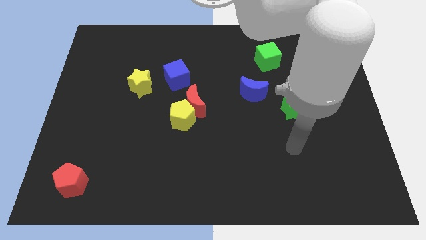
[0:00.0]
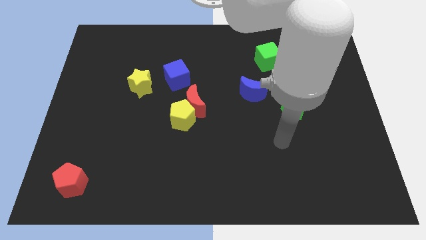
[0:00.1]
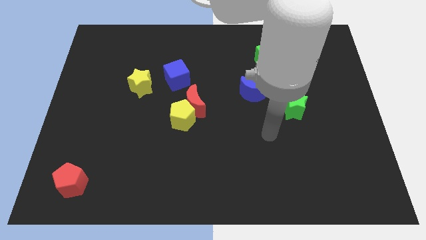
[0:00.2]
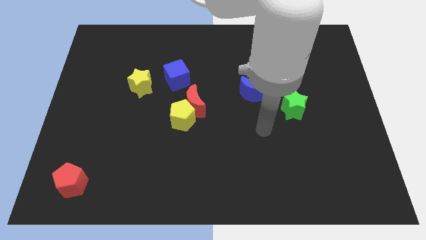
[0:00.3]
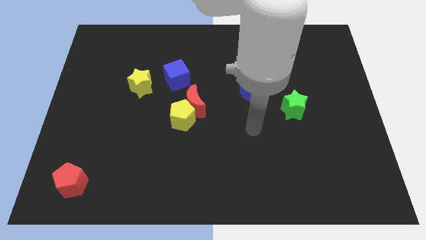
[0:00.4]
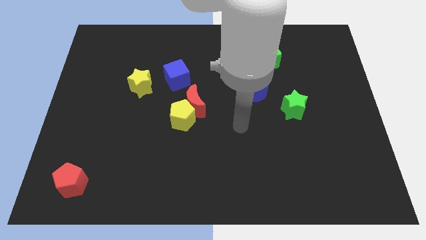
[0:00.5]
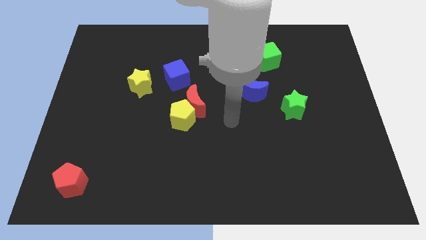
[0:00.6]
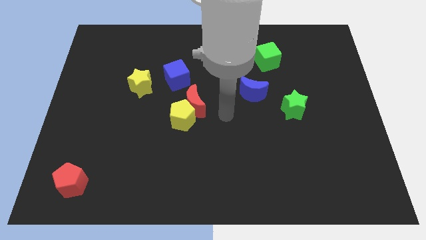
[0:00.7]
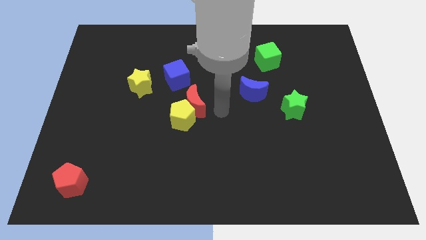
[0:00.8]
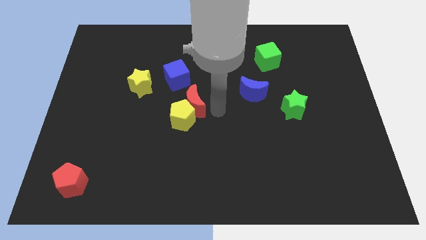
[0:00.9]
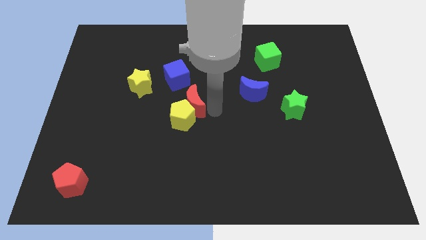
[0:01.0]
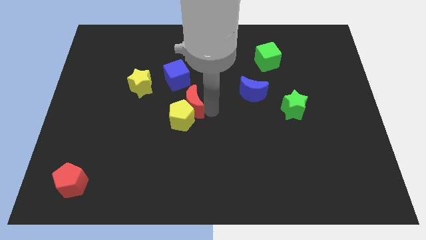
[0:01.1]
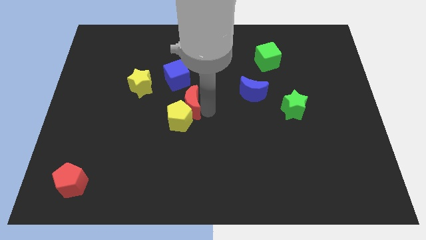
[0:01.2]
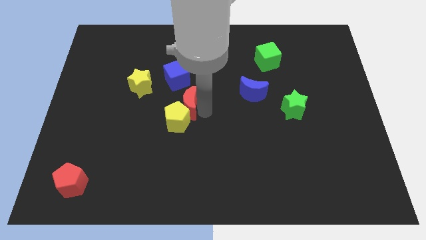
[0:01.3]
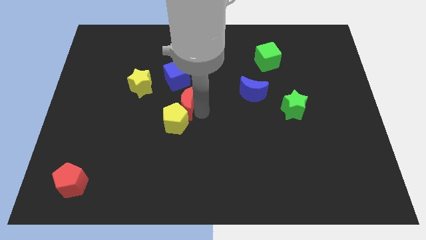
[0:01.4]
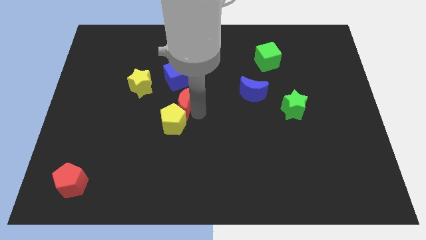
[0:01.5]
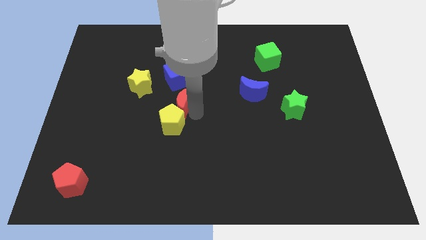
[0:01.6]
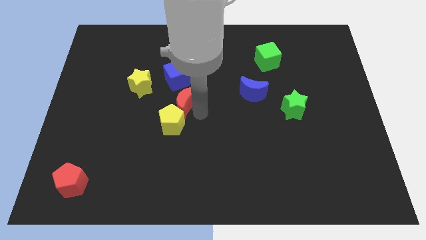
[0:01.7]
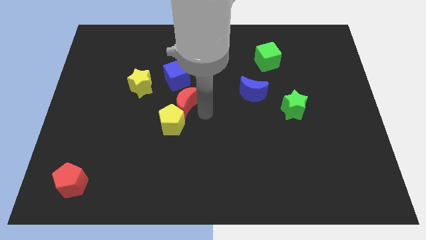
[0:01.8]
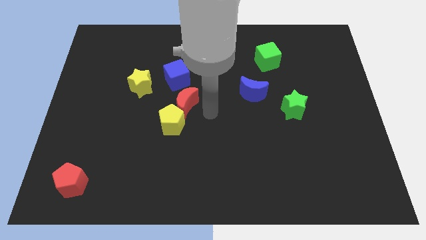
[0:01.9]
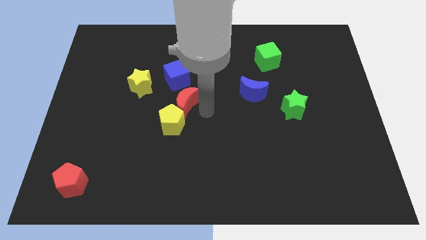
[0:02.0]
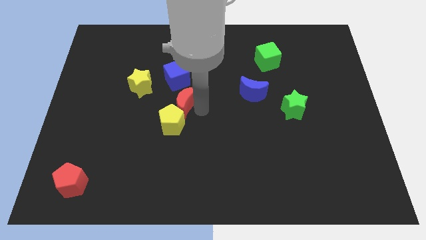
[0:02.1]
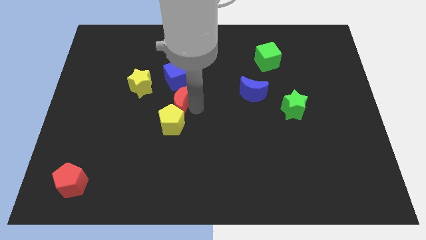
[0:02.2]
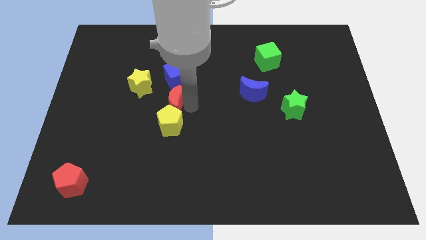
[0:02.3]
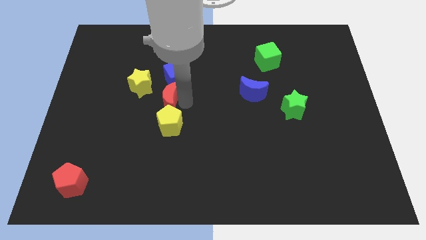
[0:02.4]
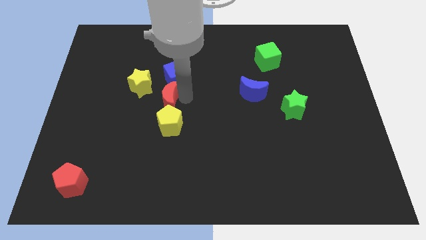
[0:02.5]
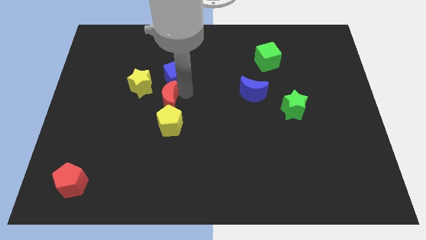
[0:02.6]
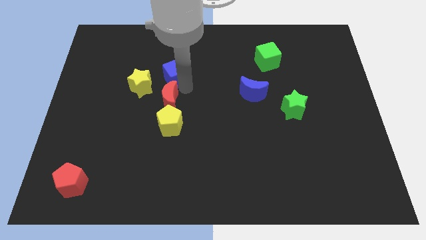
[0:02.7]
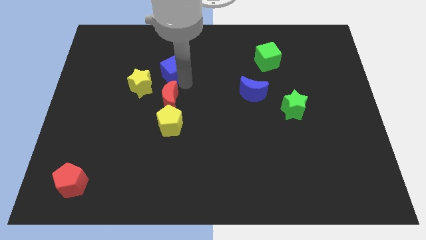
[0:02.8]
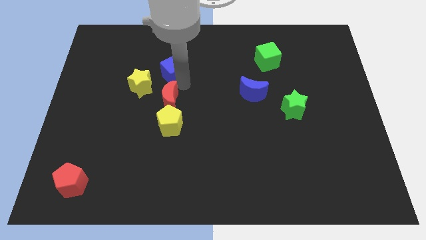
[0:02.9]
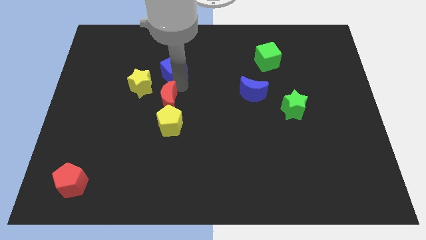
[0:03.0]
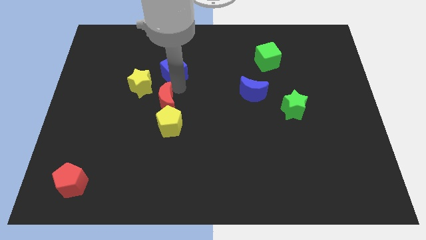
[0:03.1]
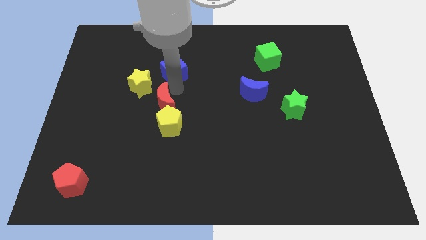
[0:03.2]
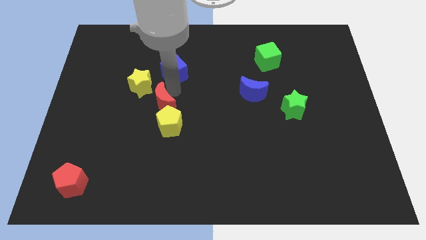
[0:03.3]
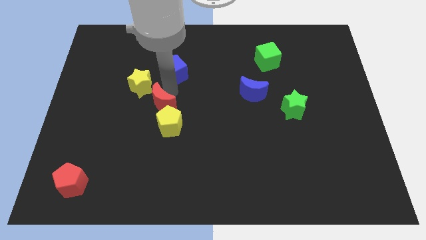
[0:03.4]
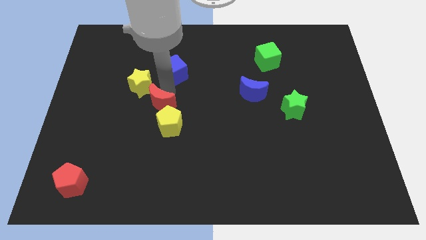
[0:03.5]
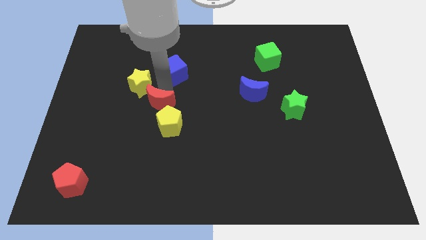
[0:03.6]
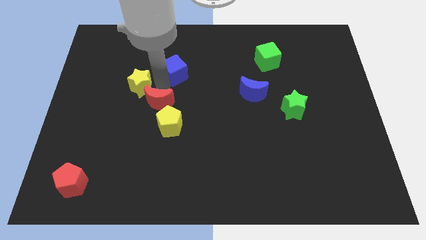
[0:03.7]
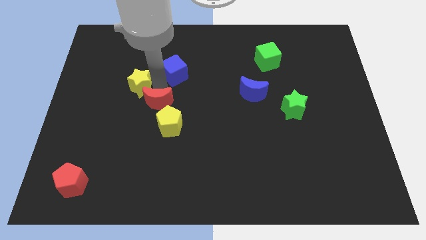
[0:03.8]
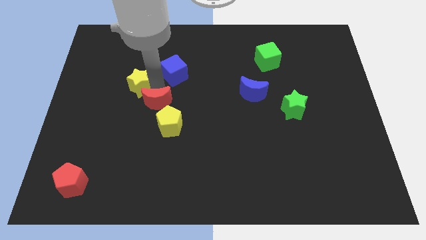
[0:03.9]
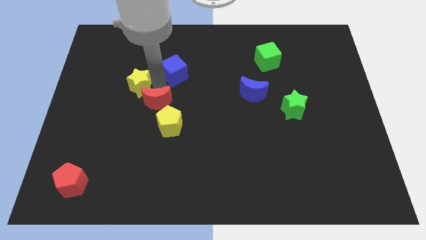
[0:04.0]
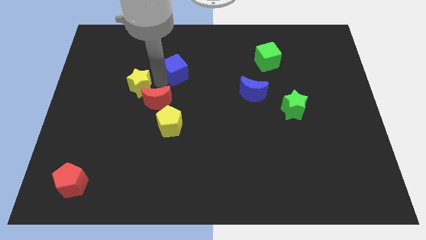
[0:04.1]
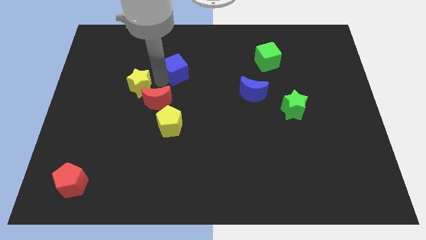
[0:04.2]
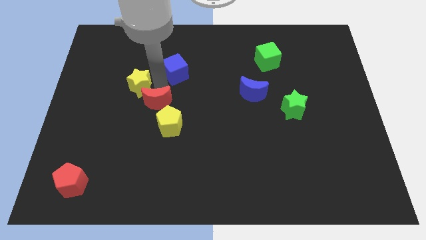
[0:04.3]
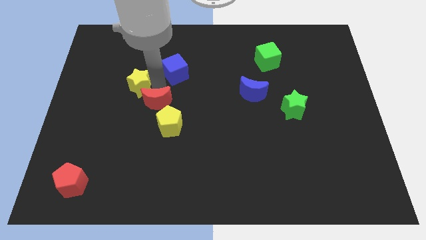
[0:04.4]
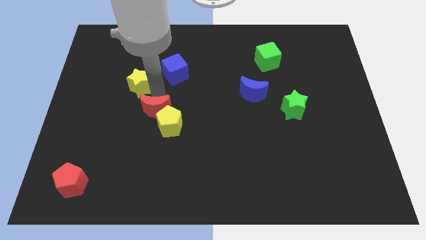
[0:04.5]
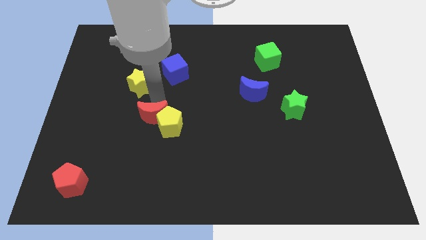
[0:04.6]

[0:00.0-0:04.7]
move the red moon down and to the left diagonally slightly

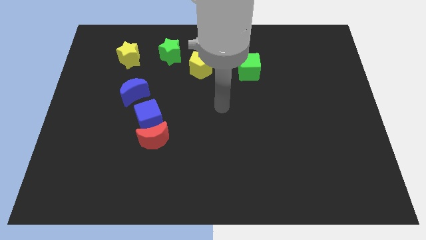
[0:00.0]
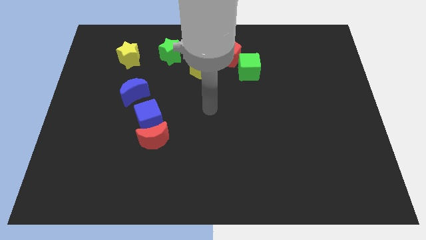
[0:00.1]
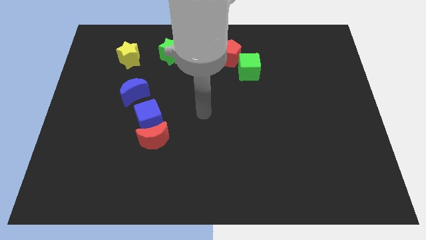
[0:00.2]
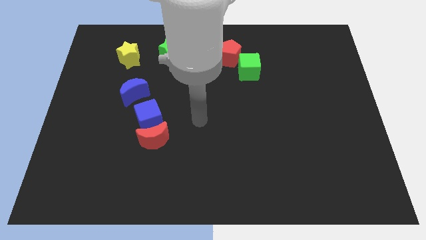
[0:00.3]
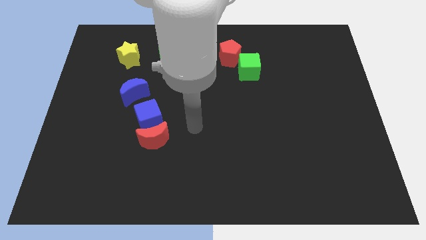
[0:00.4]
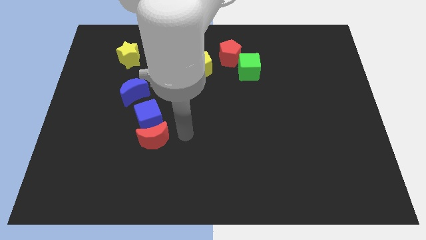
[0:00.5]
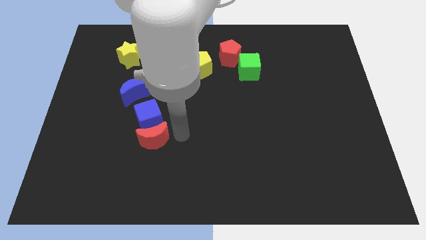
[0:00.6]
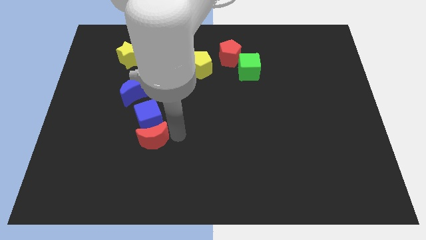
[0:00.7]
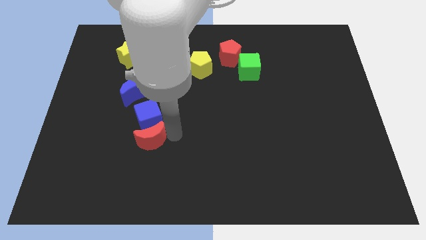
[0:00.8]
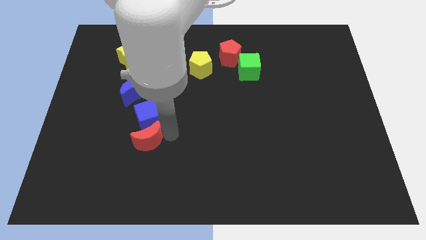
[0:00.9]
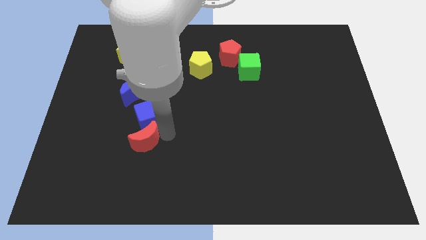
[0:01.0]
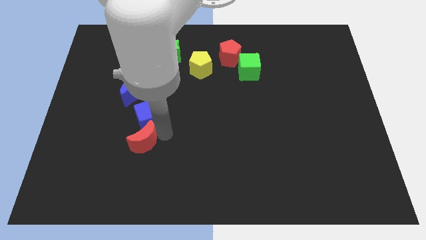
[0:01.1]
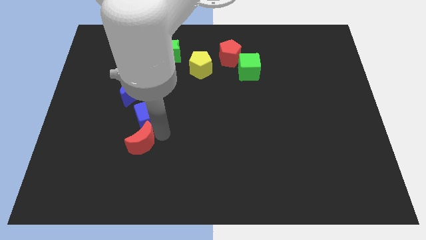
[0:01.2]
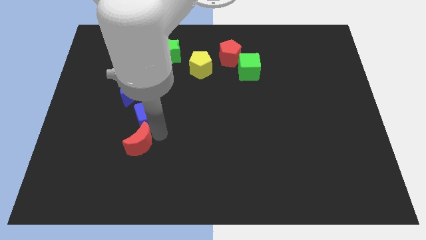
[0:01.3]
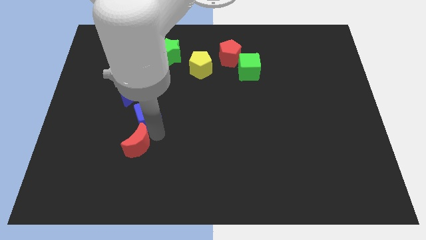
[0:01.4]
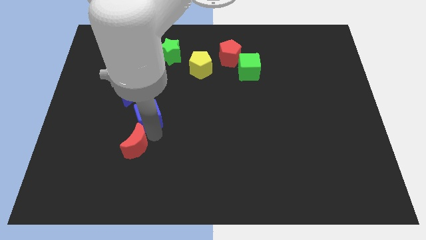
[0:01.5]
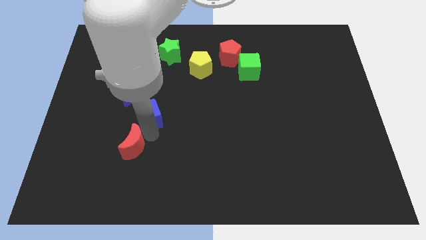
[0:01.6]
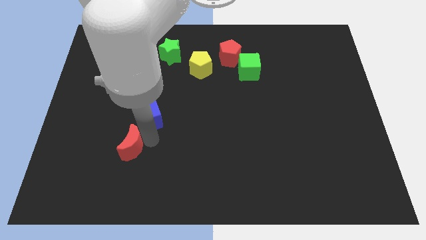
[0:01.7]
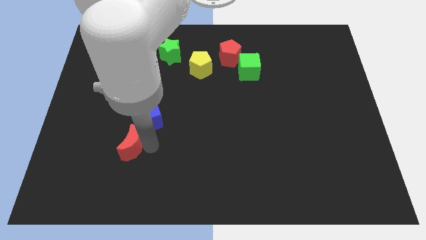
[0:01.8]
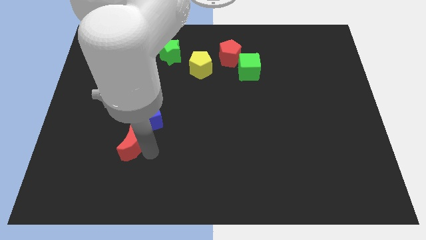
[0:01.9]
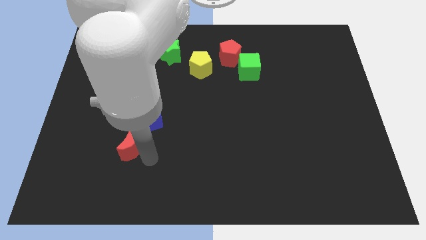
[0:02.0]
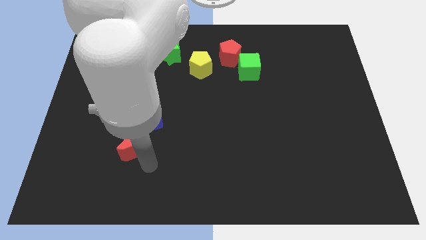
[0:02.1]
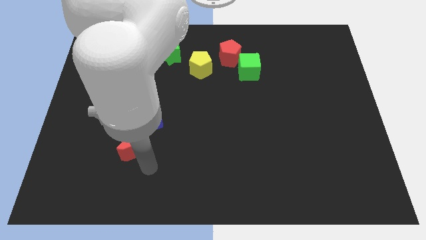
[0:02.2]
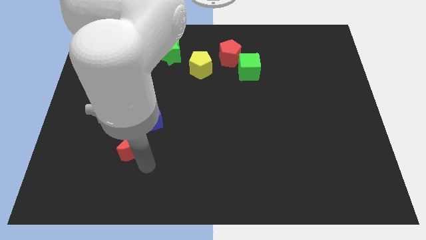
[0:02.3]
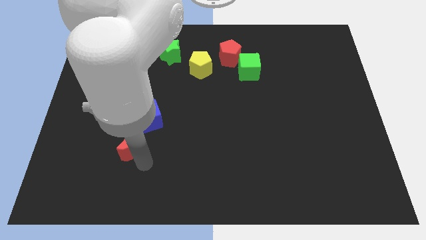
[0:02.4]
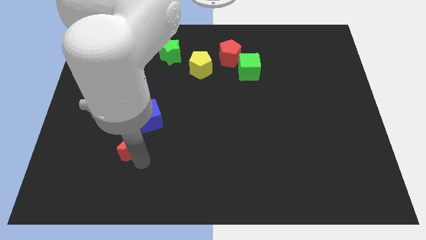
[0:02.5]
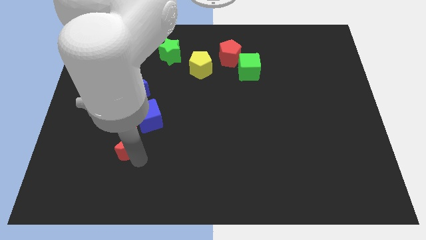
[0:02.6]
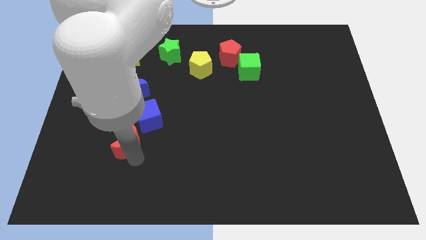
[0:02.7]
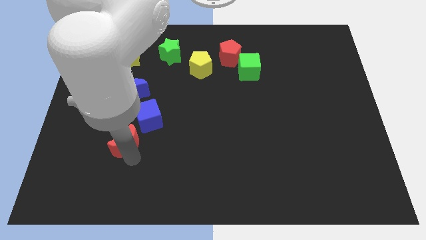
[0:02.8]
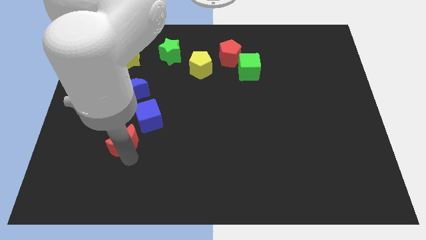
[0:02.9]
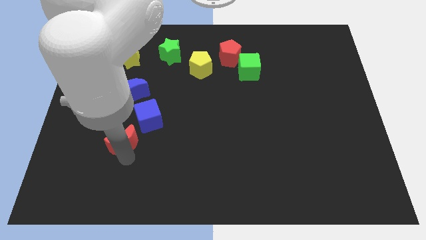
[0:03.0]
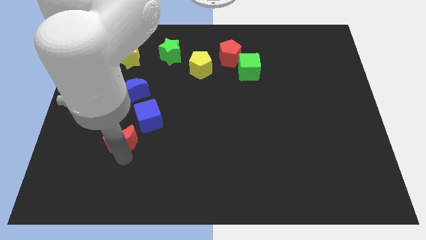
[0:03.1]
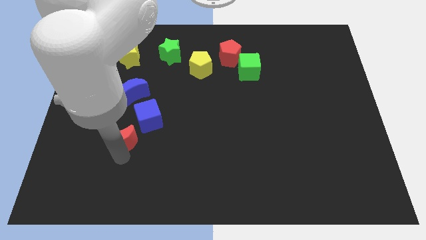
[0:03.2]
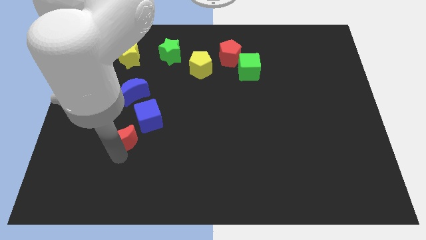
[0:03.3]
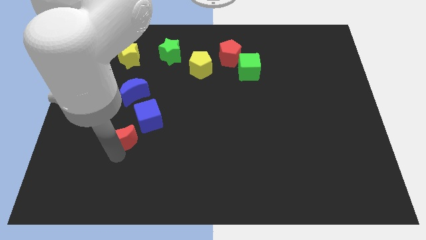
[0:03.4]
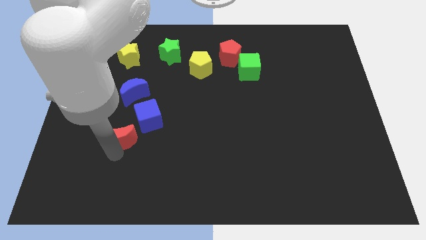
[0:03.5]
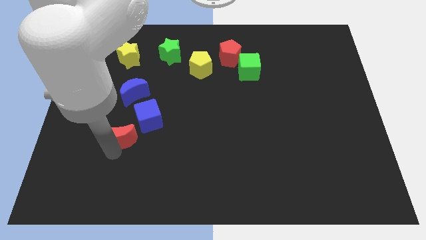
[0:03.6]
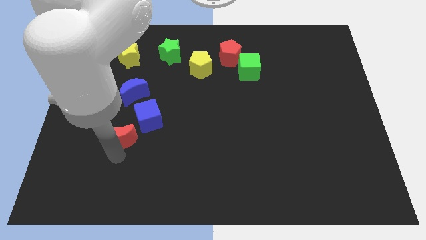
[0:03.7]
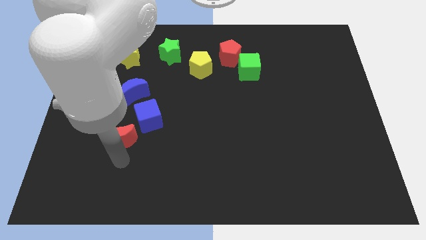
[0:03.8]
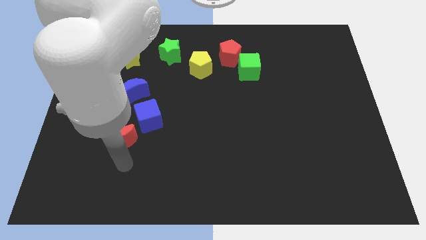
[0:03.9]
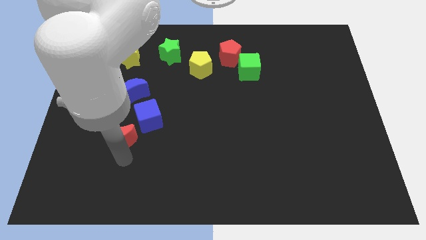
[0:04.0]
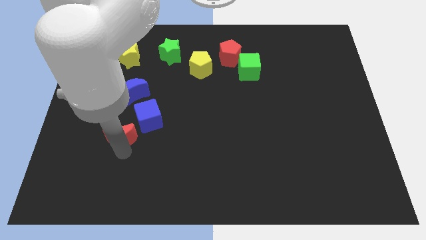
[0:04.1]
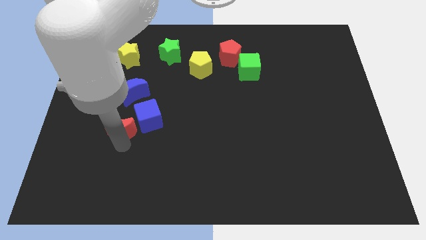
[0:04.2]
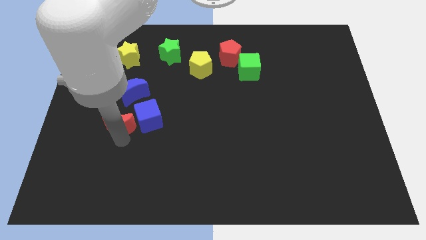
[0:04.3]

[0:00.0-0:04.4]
push the red moon up and to the left diagonally slightly
